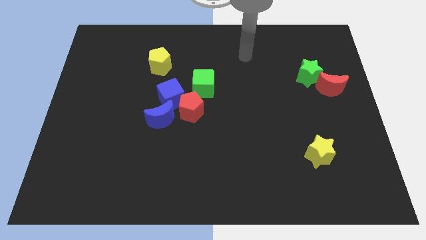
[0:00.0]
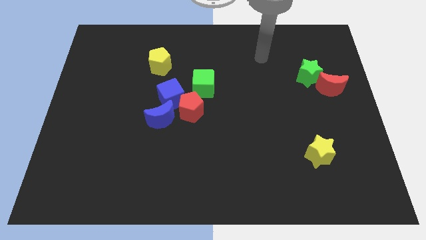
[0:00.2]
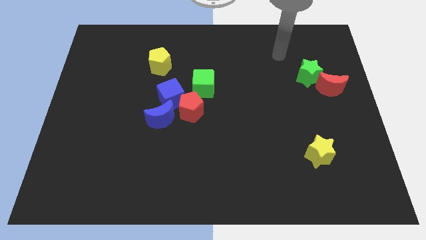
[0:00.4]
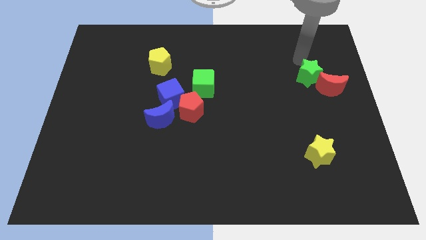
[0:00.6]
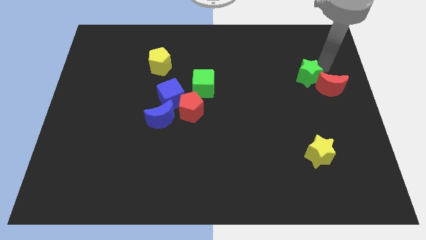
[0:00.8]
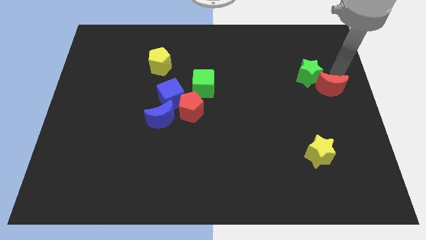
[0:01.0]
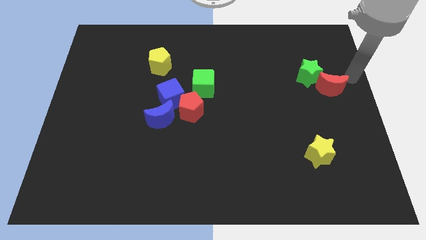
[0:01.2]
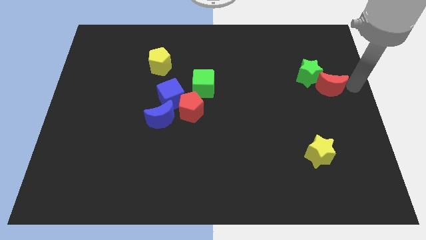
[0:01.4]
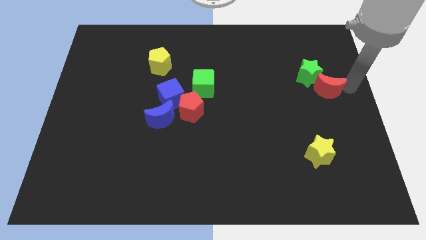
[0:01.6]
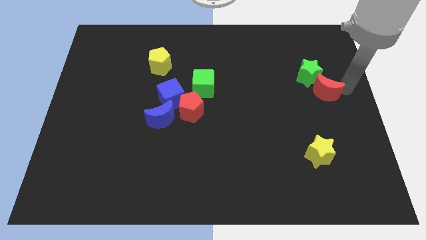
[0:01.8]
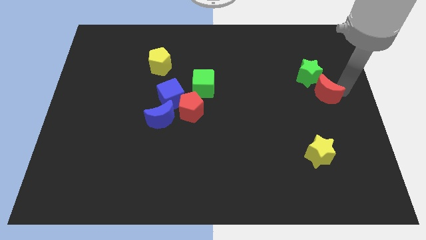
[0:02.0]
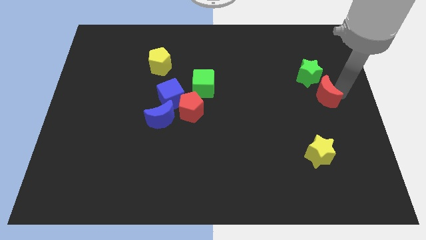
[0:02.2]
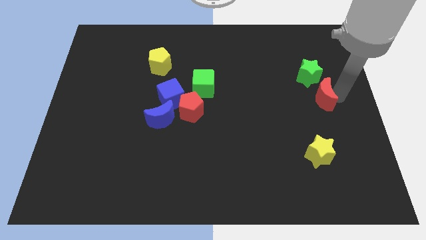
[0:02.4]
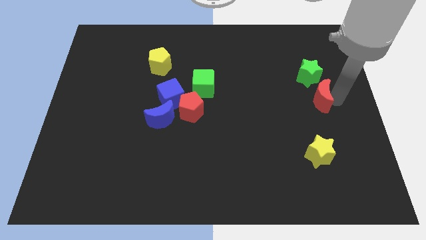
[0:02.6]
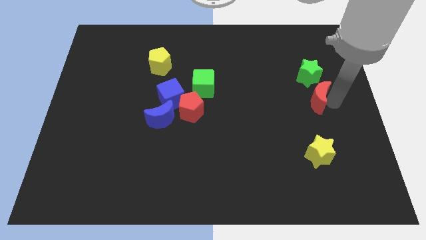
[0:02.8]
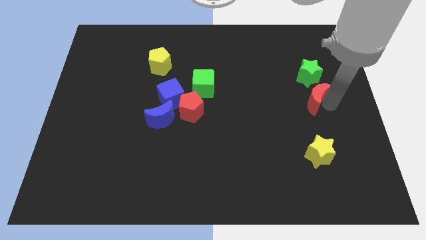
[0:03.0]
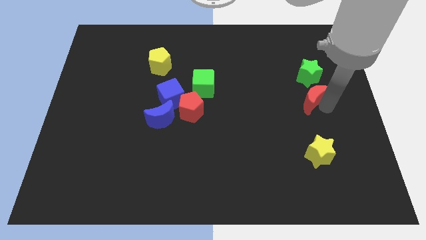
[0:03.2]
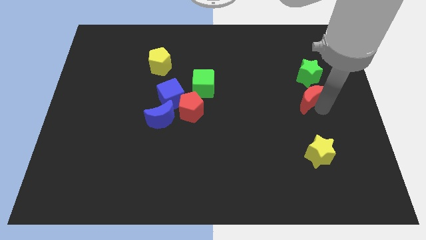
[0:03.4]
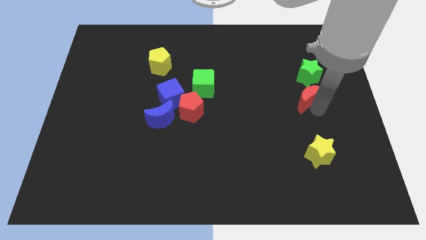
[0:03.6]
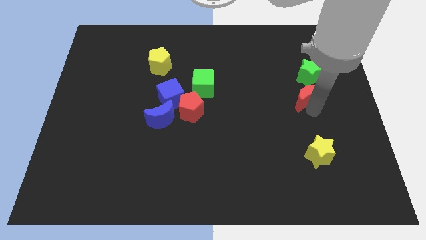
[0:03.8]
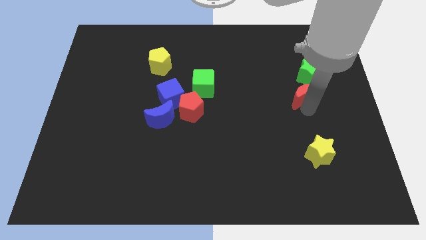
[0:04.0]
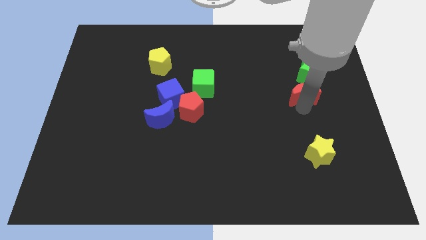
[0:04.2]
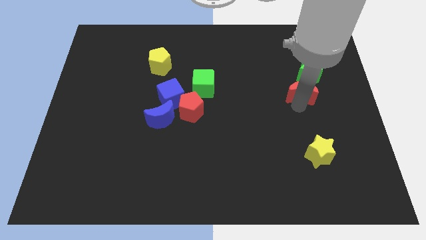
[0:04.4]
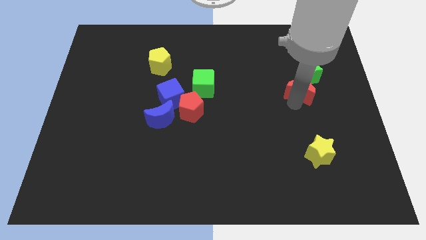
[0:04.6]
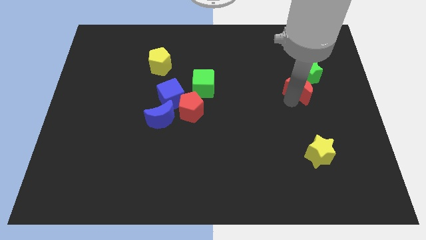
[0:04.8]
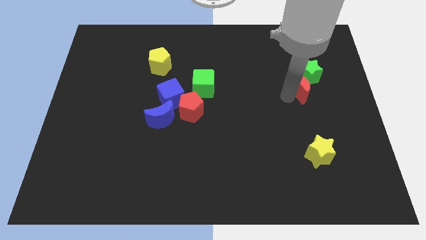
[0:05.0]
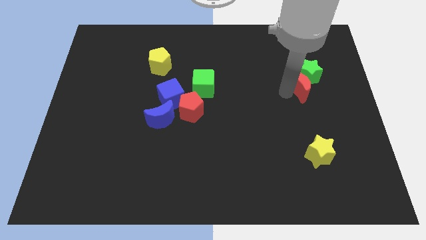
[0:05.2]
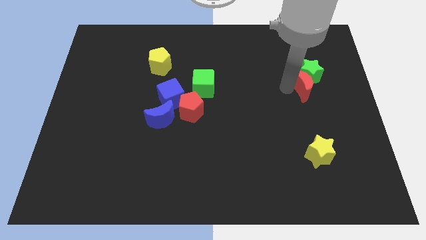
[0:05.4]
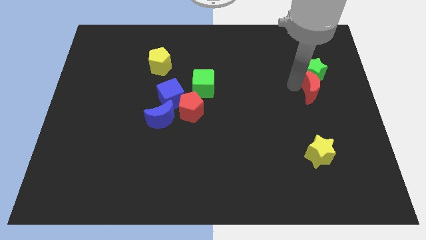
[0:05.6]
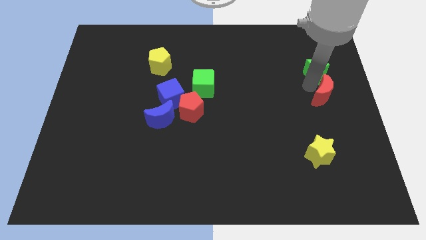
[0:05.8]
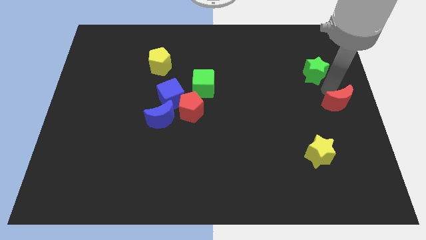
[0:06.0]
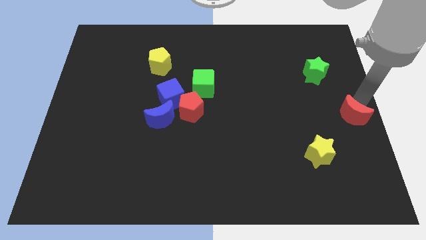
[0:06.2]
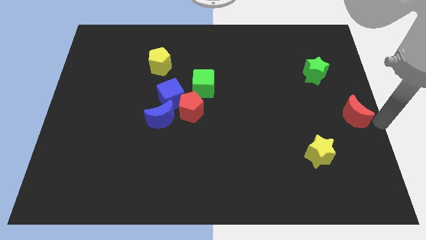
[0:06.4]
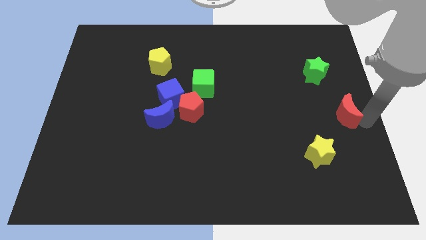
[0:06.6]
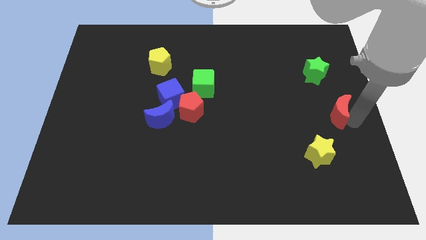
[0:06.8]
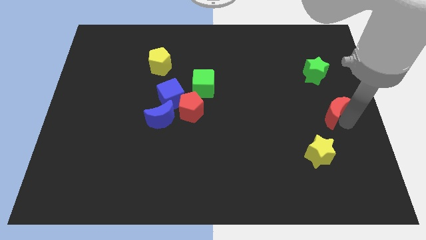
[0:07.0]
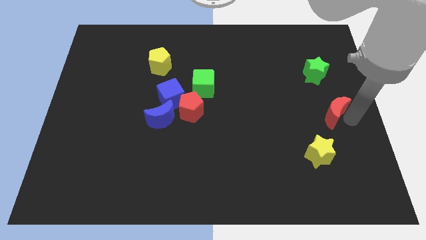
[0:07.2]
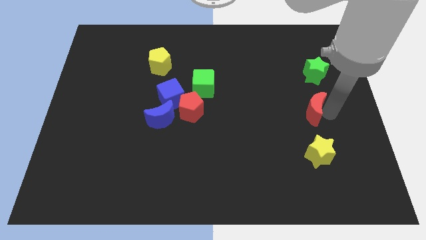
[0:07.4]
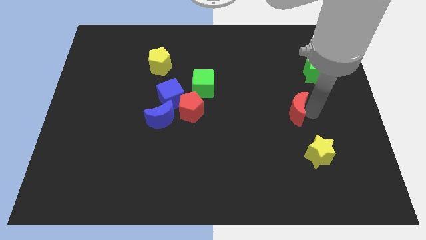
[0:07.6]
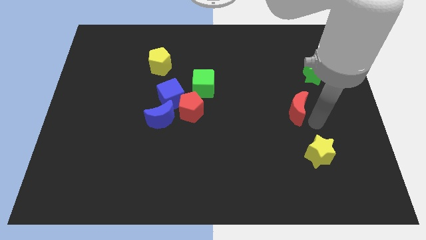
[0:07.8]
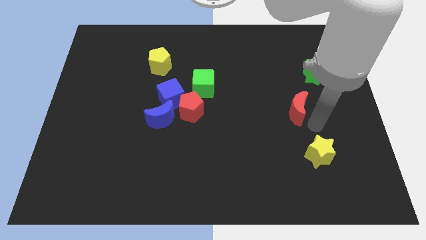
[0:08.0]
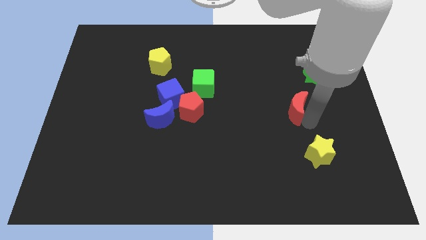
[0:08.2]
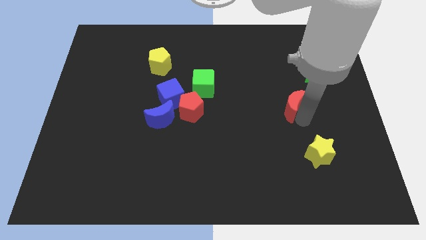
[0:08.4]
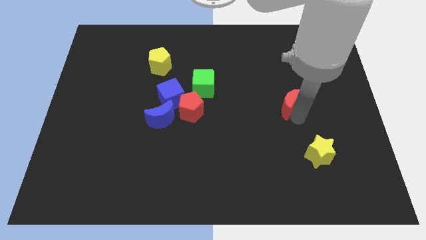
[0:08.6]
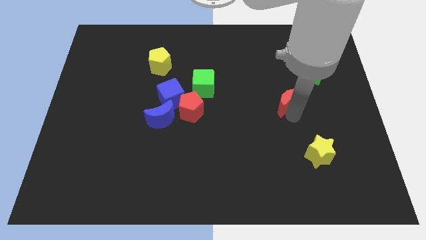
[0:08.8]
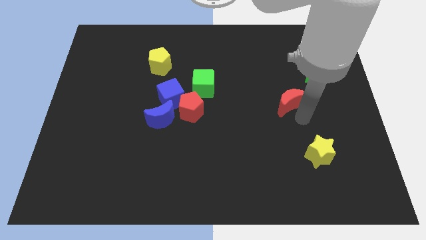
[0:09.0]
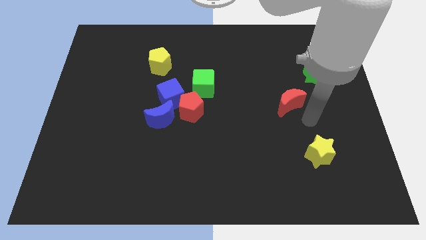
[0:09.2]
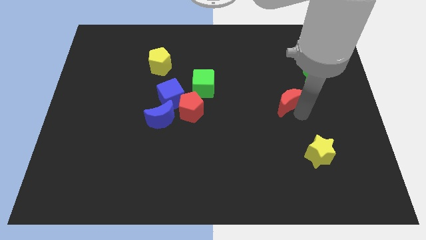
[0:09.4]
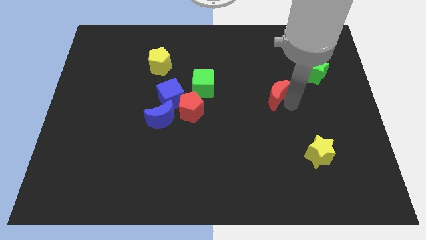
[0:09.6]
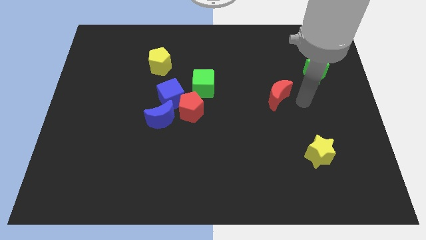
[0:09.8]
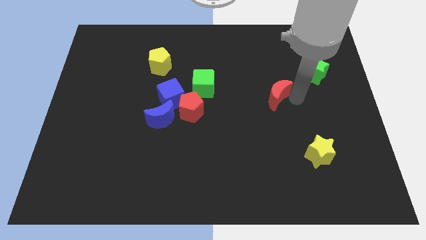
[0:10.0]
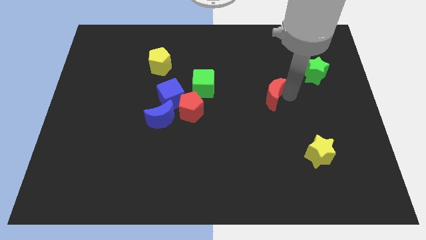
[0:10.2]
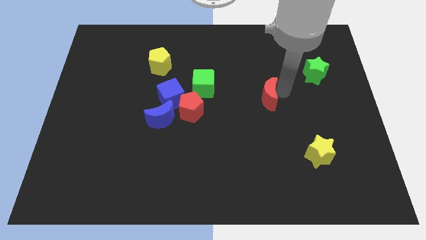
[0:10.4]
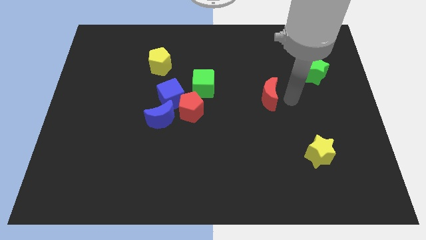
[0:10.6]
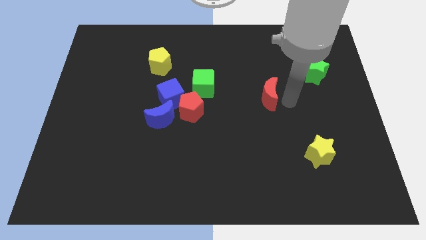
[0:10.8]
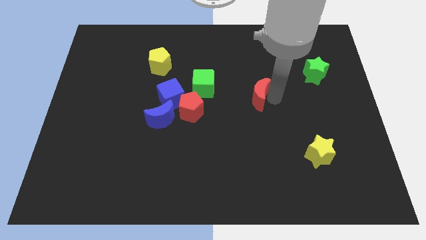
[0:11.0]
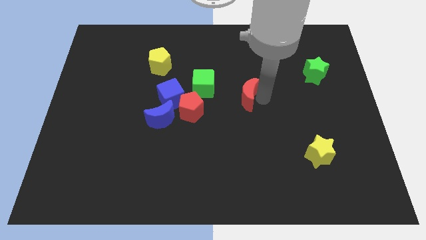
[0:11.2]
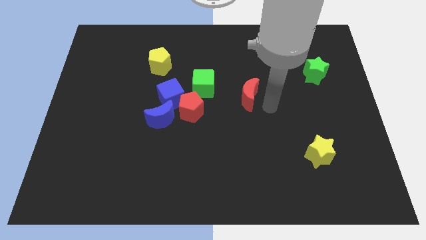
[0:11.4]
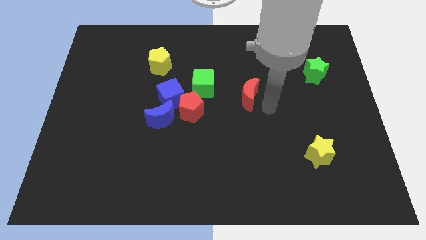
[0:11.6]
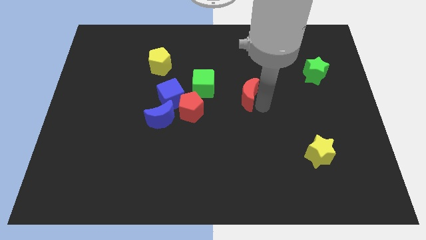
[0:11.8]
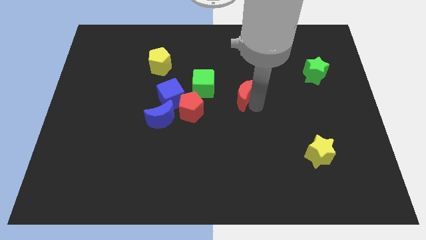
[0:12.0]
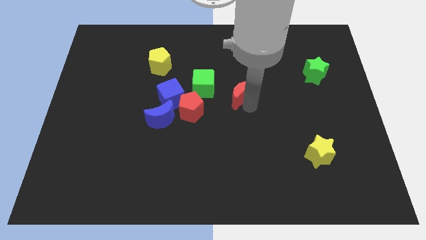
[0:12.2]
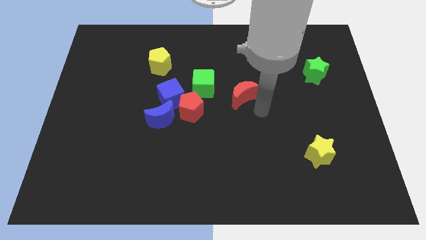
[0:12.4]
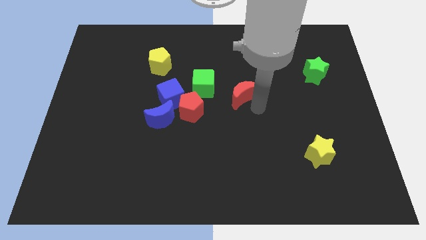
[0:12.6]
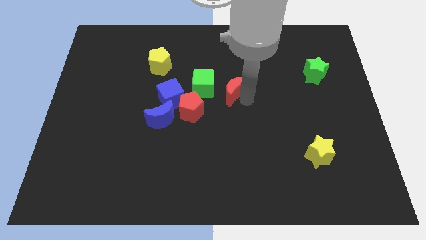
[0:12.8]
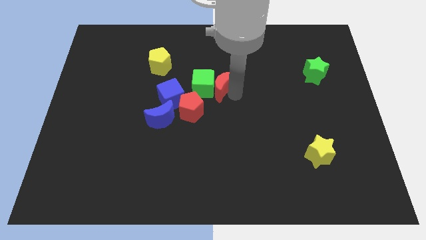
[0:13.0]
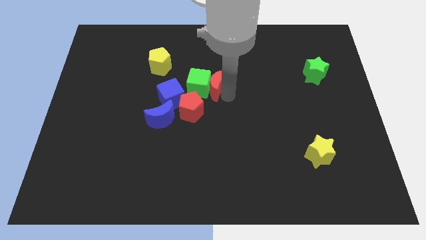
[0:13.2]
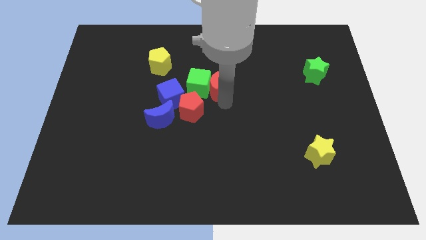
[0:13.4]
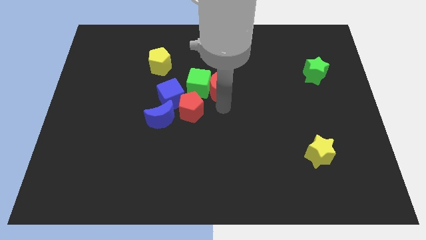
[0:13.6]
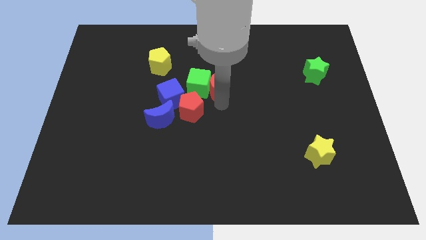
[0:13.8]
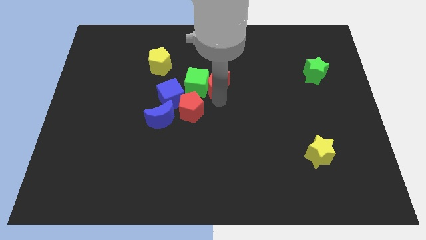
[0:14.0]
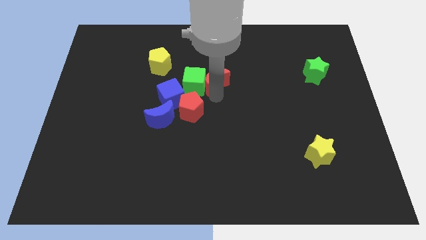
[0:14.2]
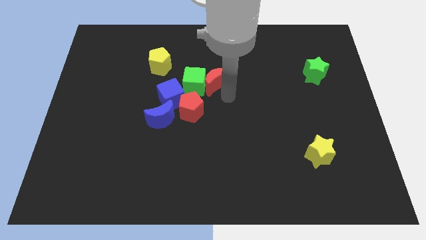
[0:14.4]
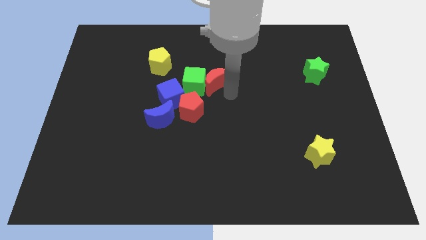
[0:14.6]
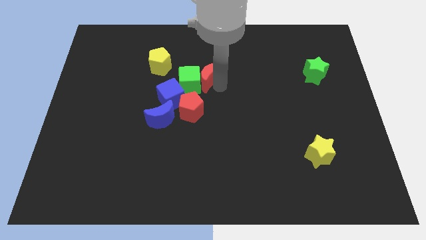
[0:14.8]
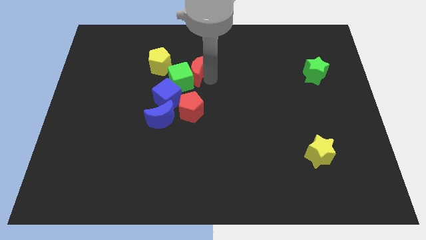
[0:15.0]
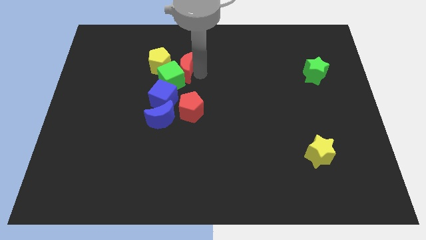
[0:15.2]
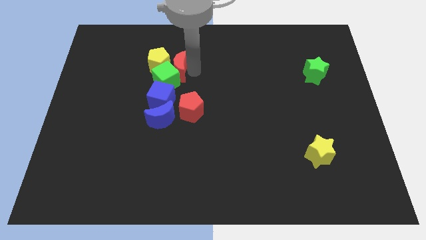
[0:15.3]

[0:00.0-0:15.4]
move the red moon close to the yellow pentagon

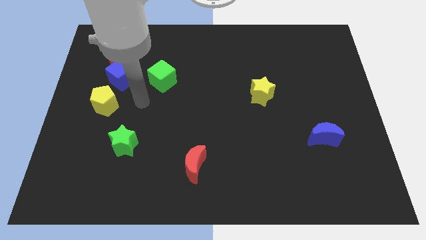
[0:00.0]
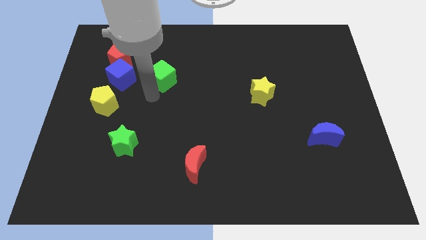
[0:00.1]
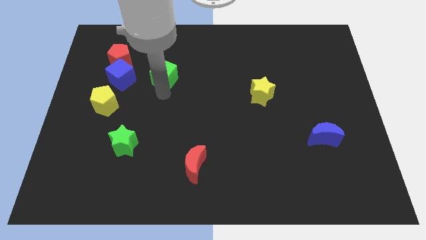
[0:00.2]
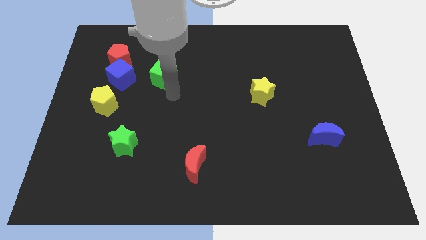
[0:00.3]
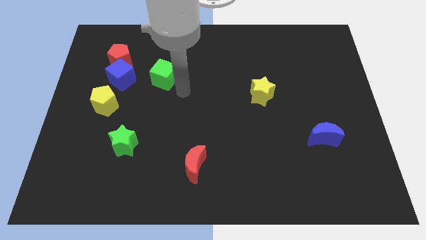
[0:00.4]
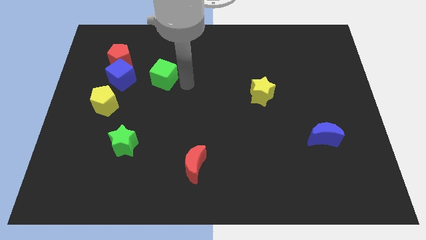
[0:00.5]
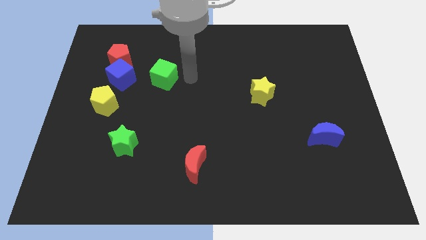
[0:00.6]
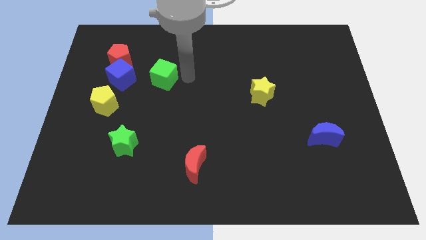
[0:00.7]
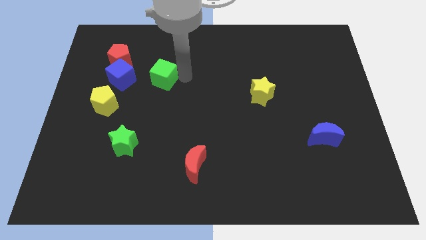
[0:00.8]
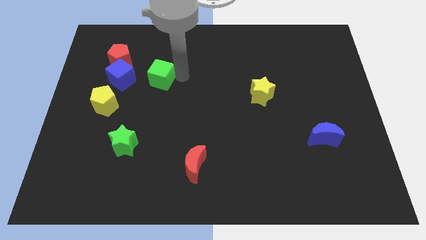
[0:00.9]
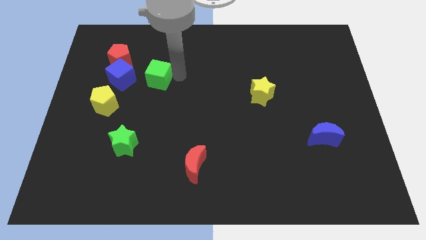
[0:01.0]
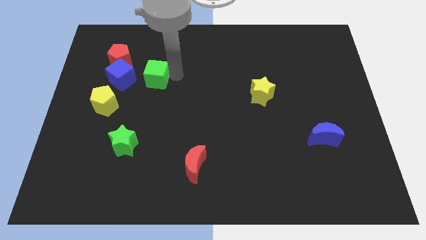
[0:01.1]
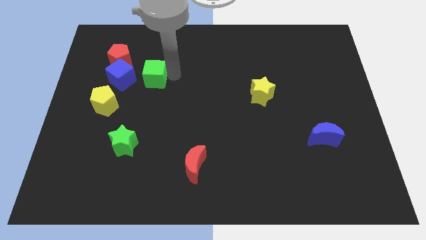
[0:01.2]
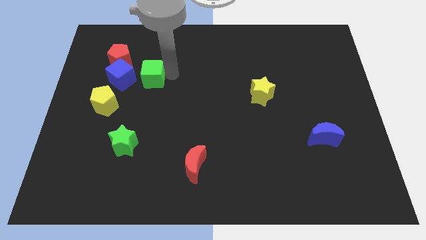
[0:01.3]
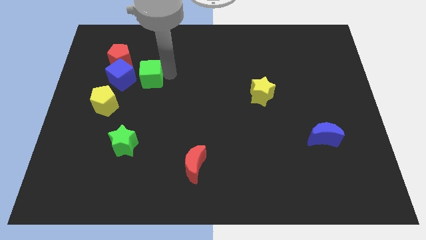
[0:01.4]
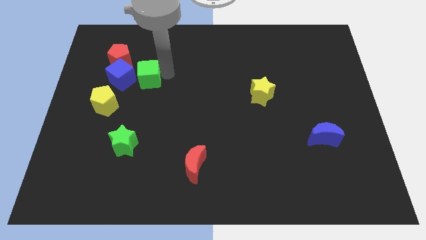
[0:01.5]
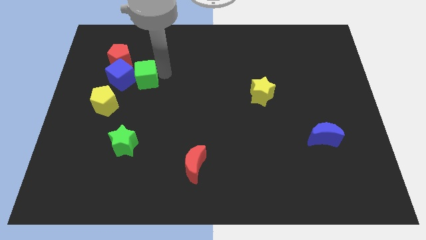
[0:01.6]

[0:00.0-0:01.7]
slide the green cube next to the blue cube
